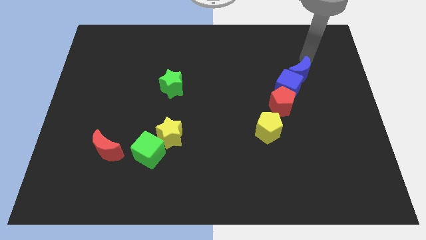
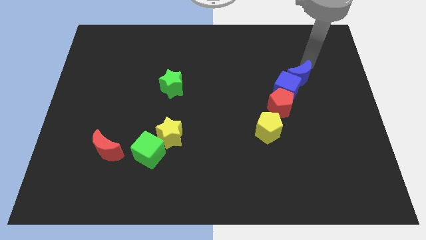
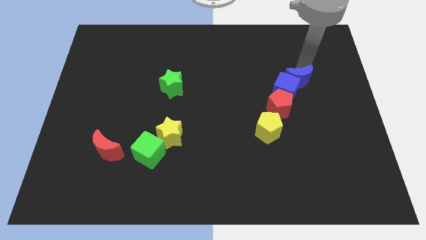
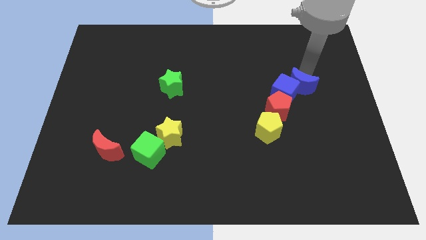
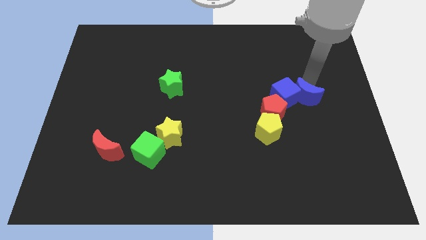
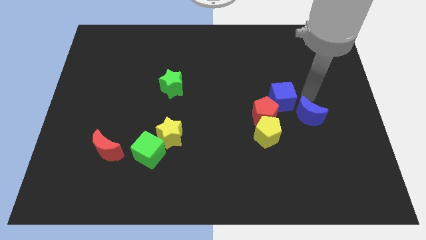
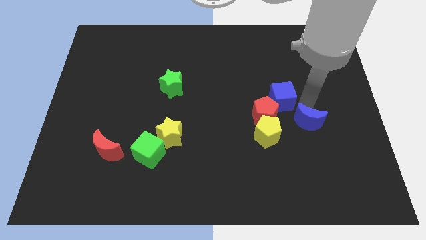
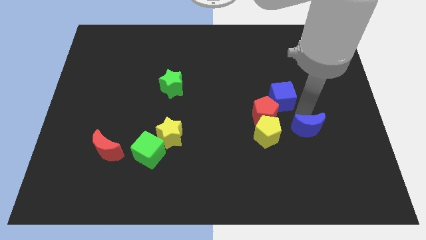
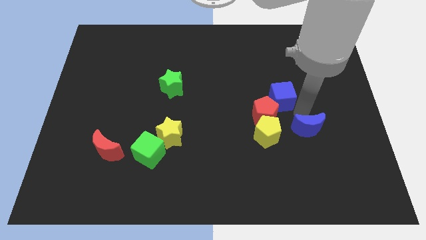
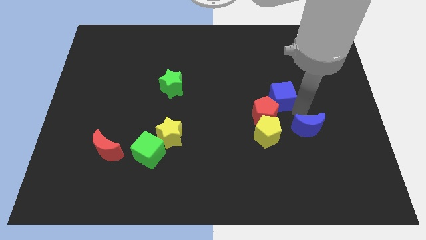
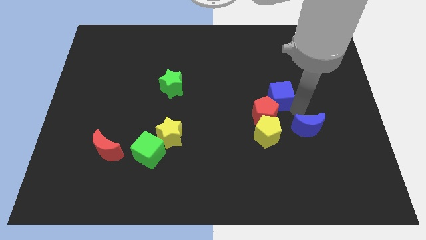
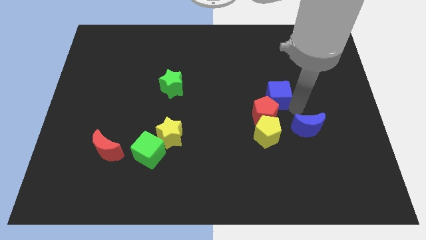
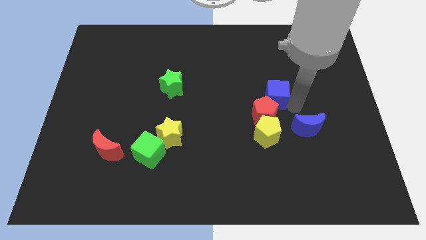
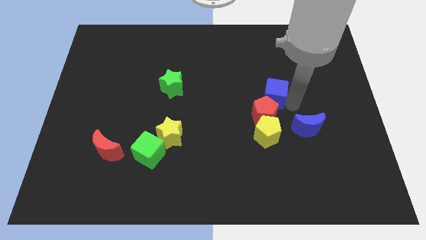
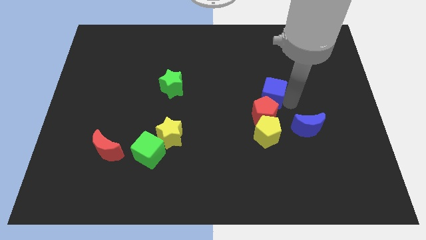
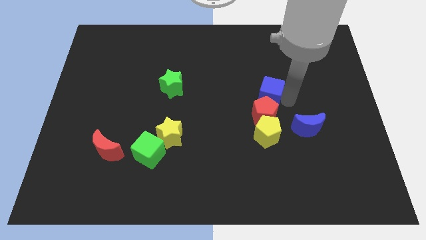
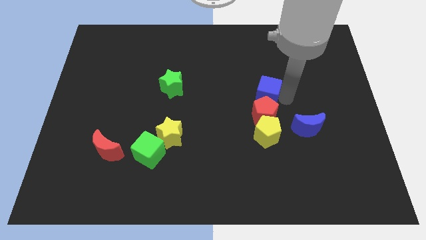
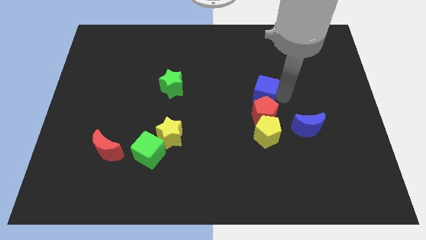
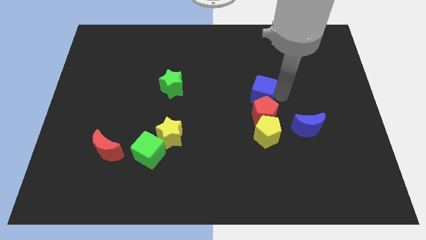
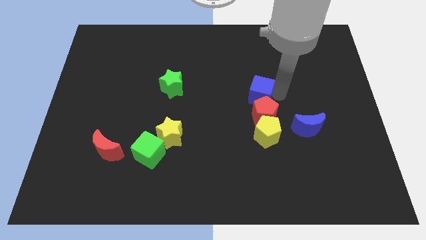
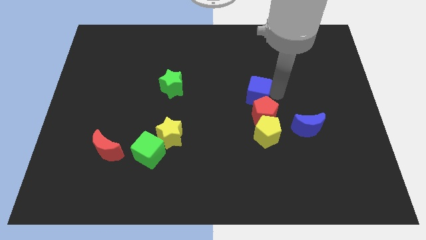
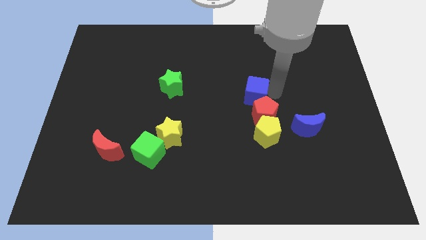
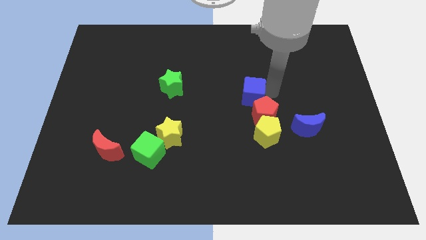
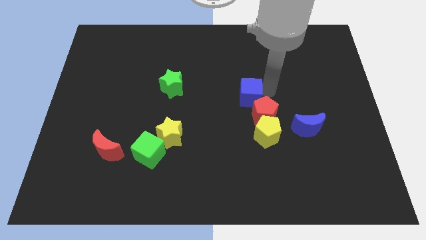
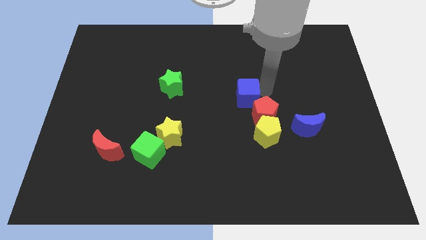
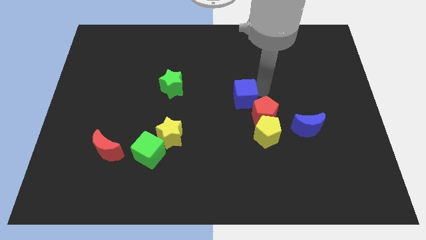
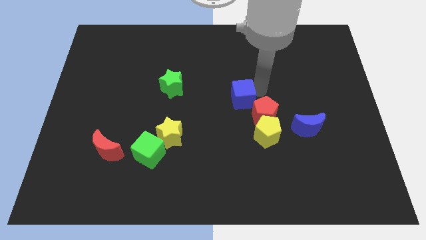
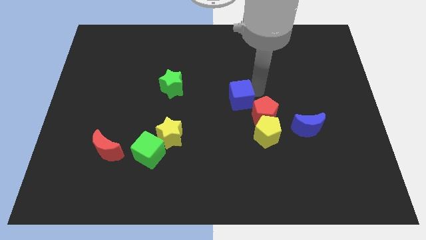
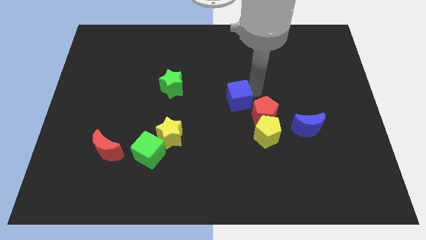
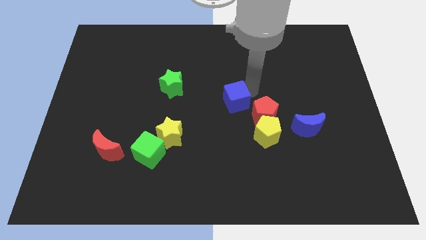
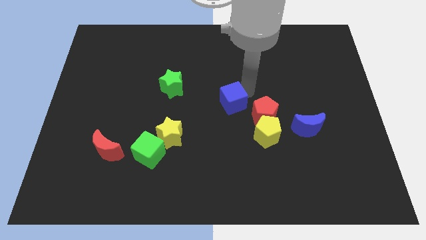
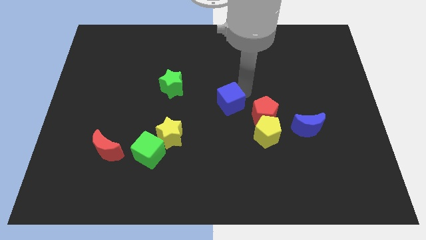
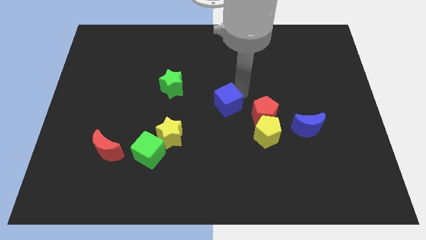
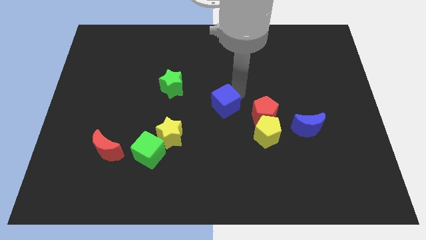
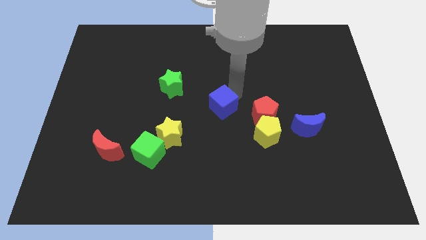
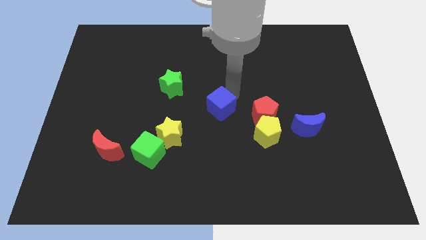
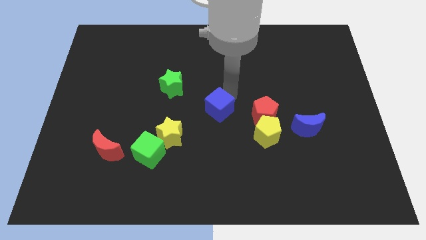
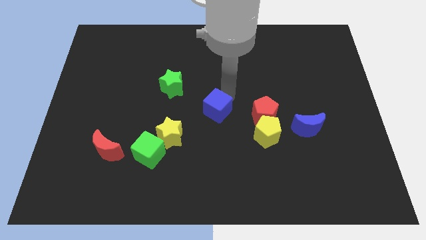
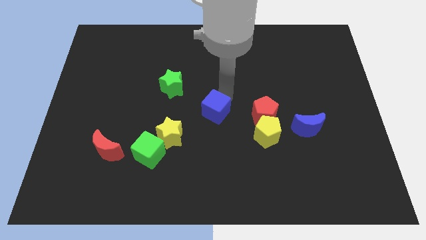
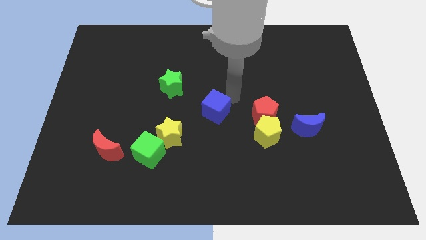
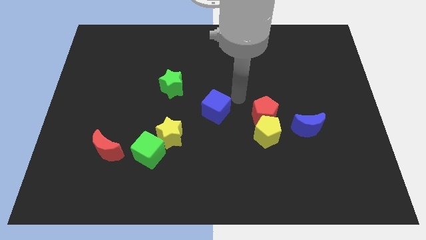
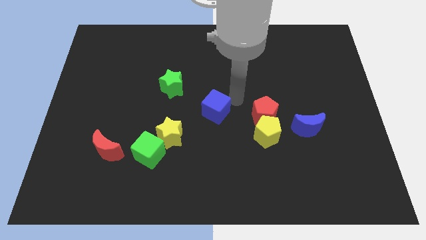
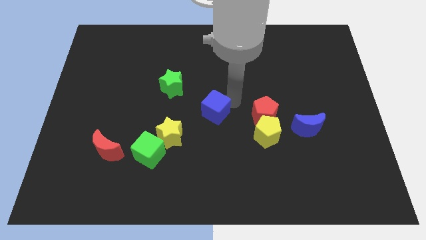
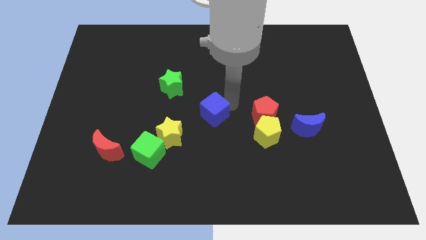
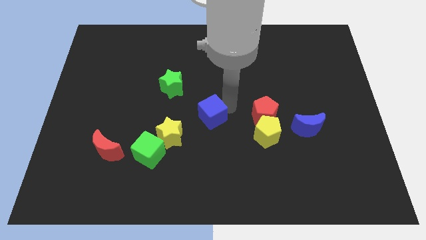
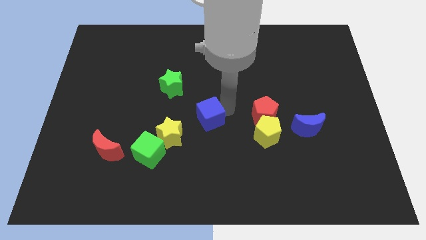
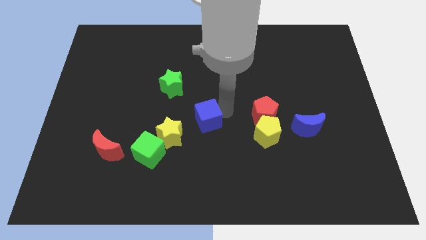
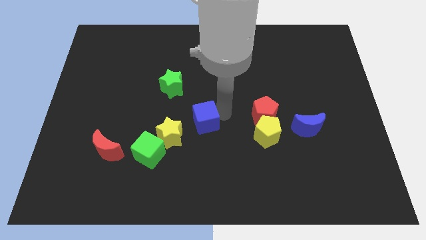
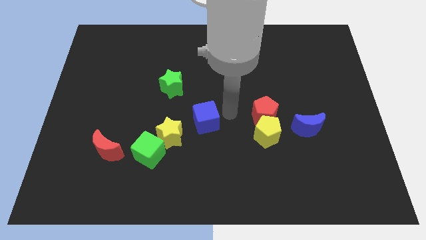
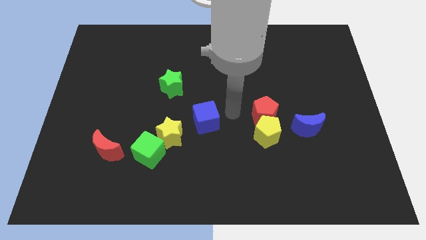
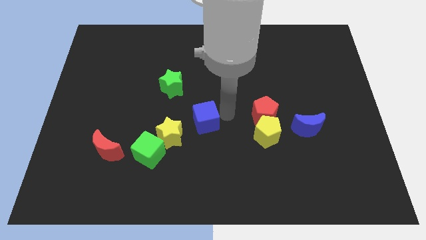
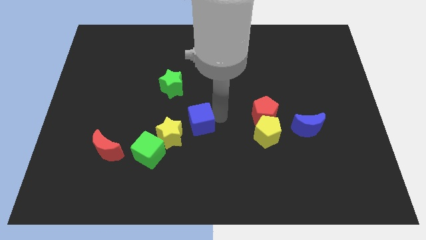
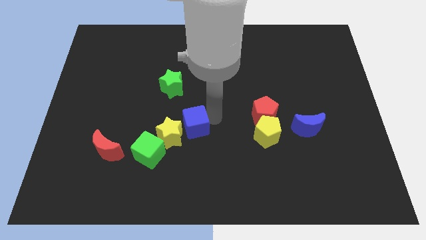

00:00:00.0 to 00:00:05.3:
move the blue cube to the yellow star

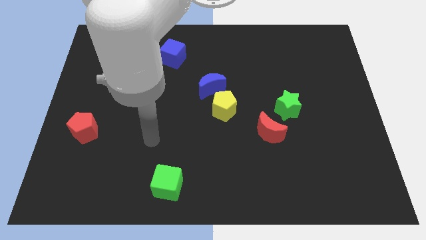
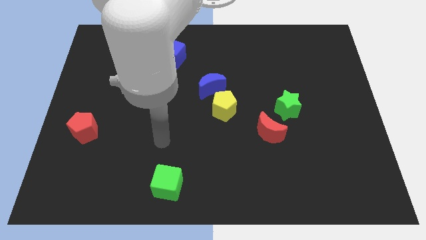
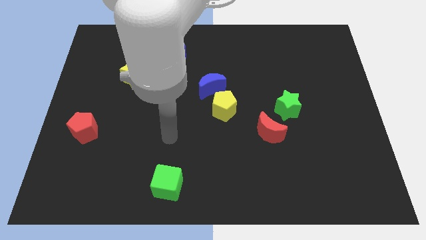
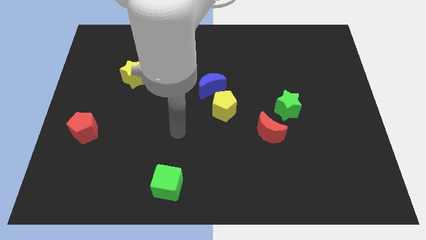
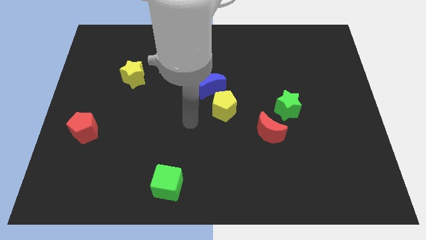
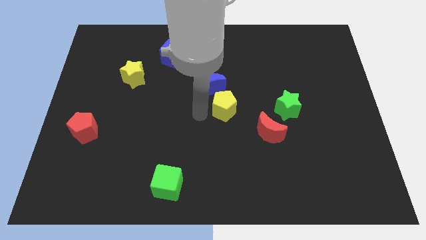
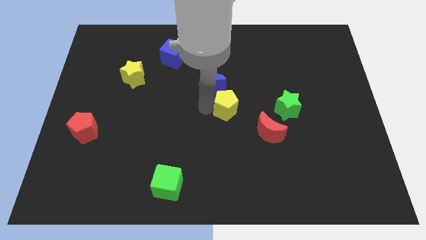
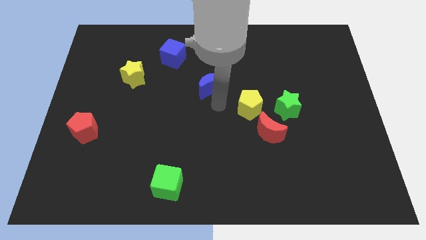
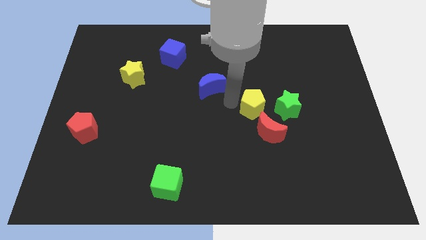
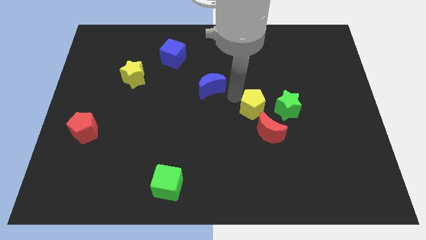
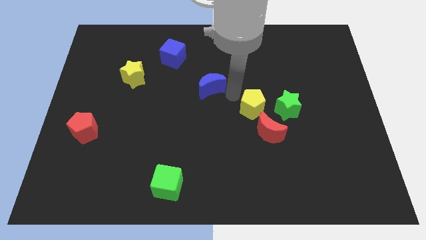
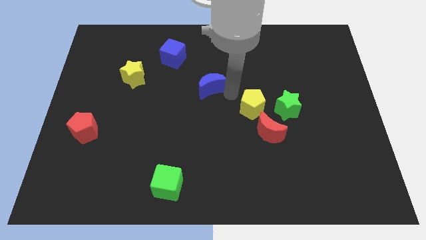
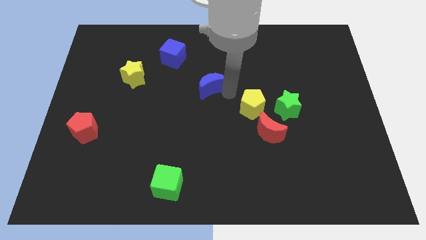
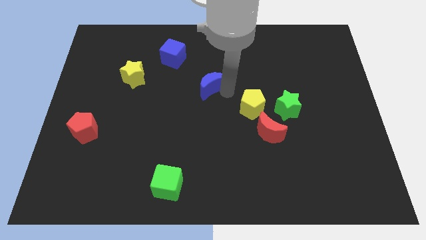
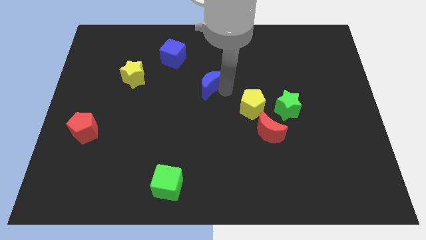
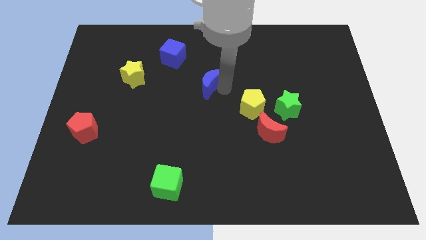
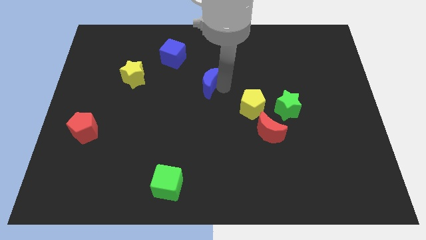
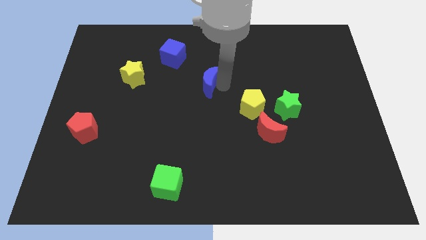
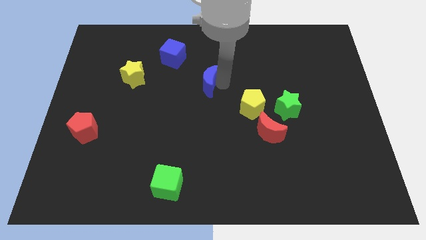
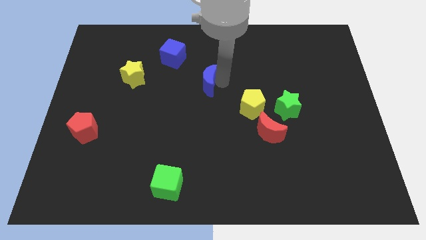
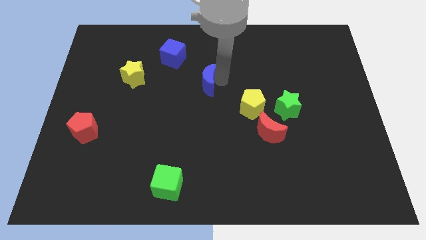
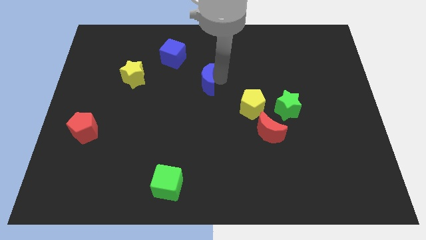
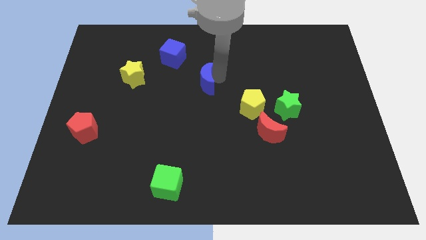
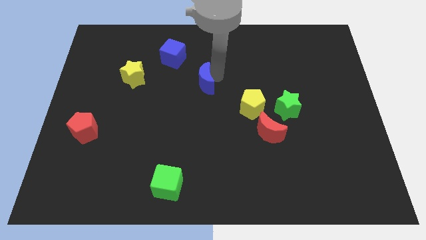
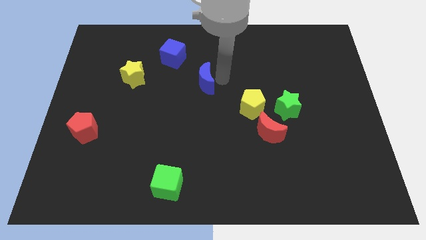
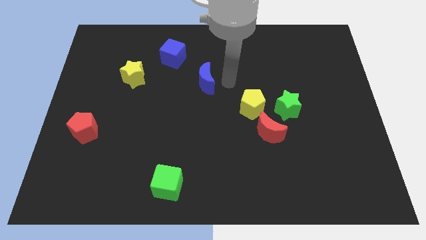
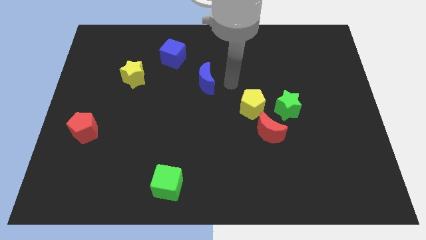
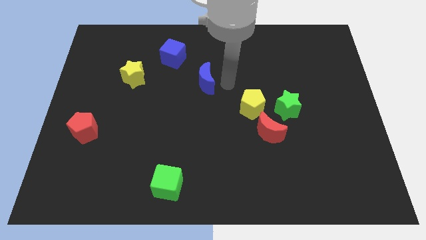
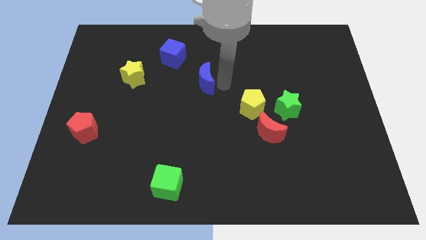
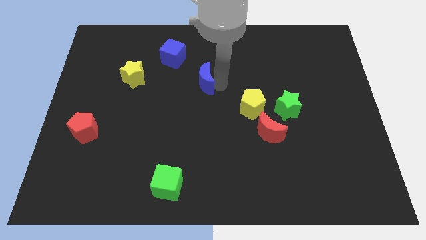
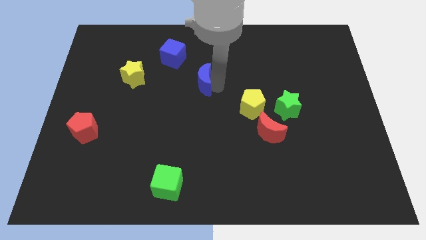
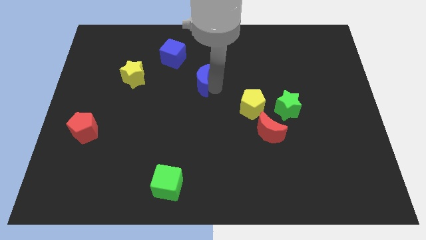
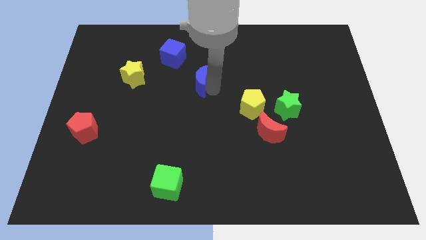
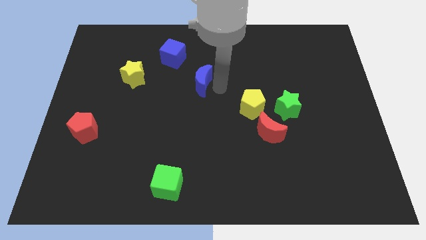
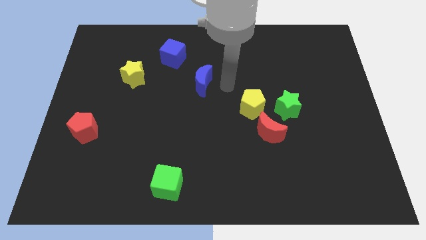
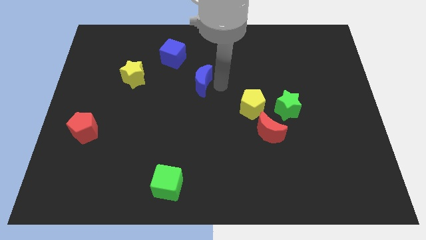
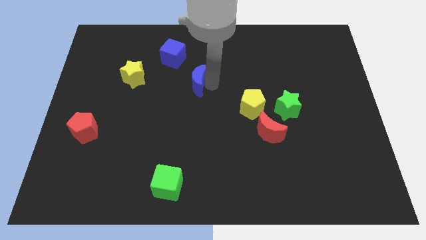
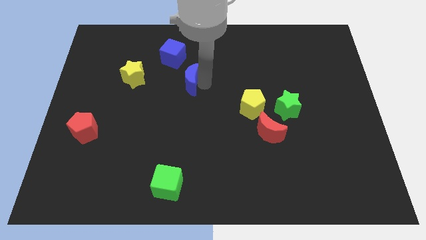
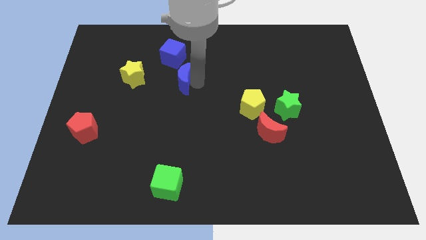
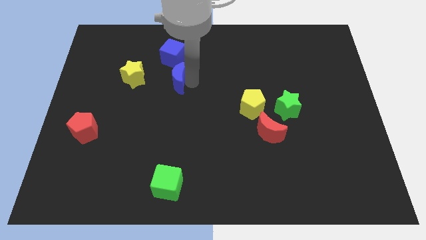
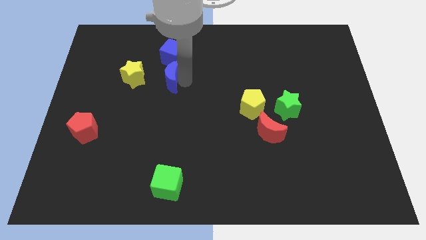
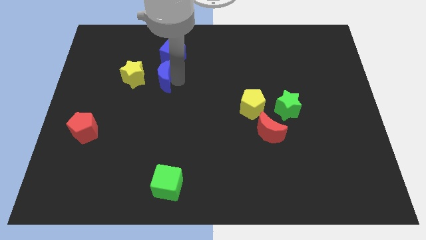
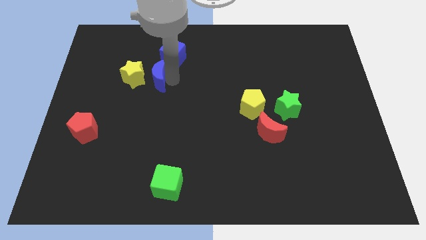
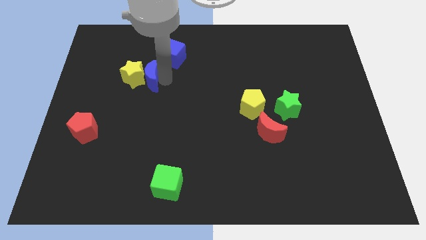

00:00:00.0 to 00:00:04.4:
slide the blue moon next to the yellow star
